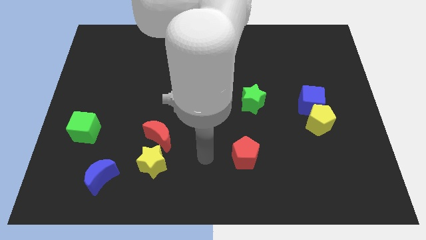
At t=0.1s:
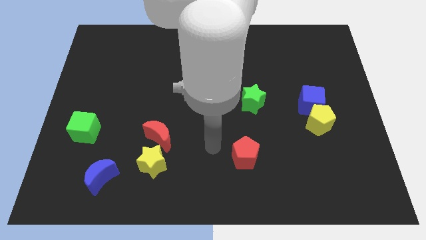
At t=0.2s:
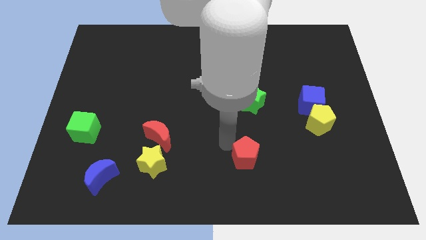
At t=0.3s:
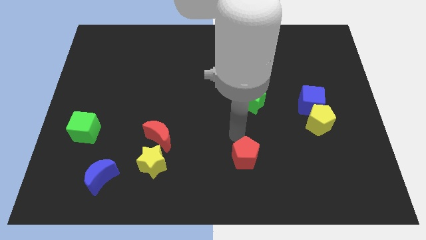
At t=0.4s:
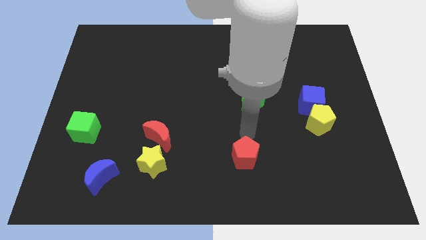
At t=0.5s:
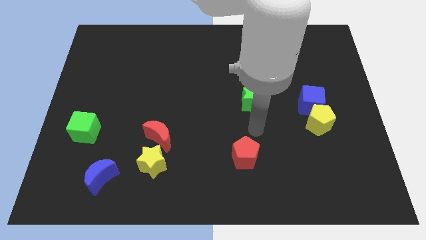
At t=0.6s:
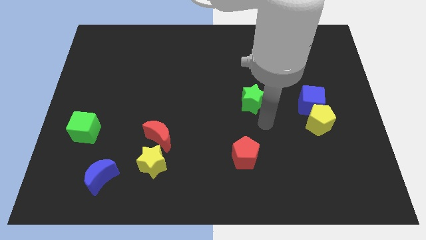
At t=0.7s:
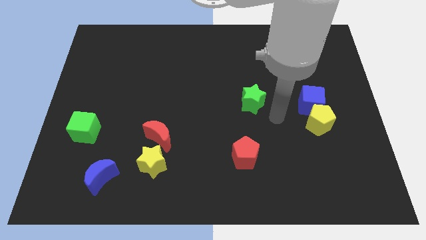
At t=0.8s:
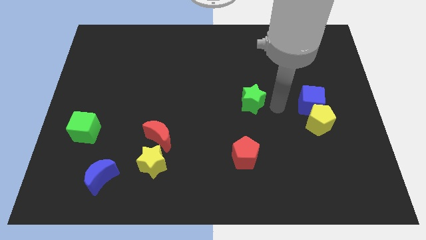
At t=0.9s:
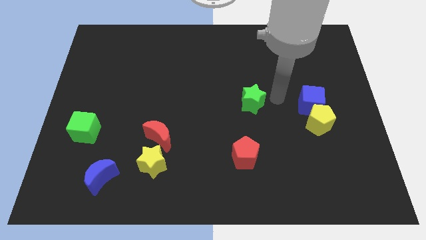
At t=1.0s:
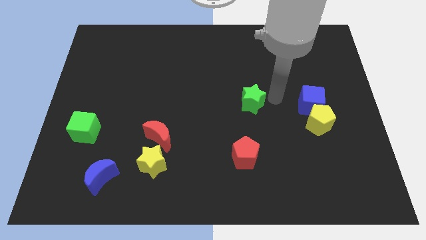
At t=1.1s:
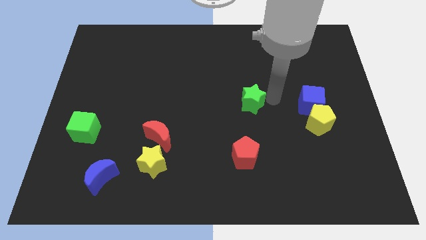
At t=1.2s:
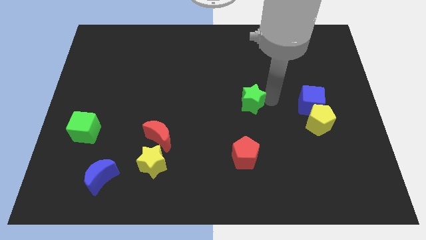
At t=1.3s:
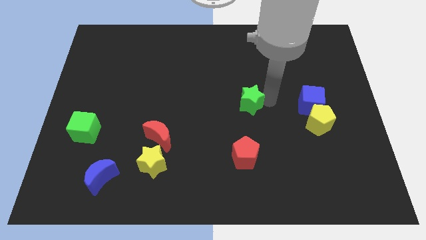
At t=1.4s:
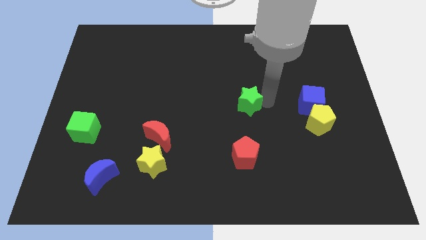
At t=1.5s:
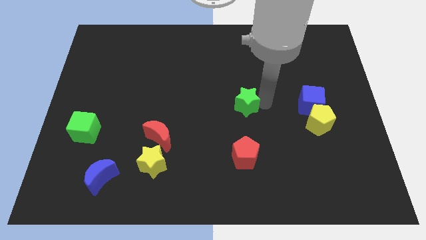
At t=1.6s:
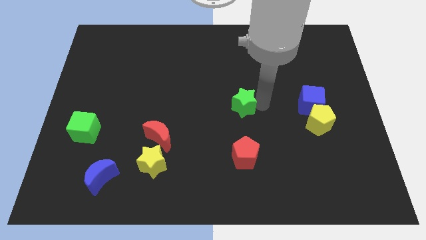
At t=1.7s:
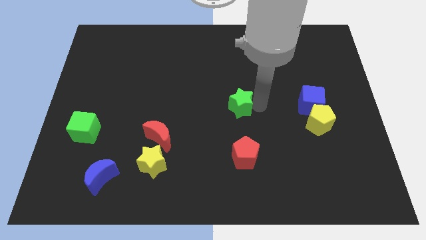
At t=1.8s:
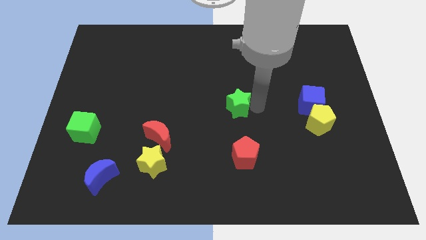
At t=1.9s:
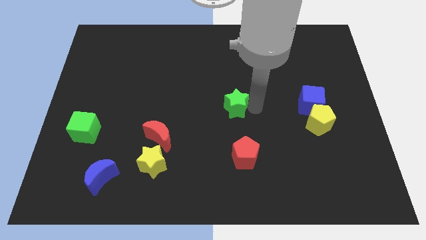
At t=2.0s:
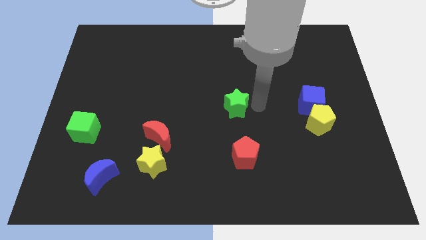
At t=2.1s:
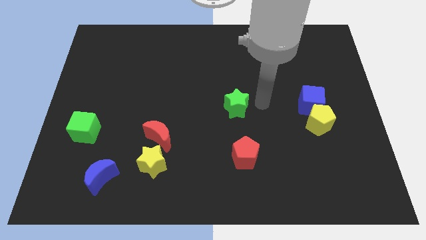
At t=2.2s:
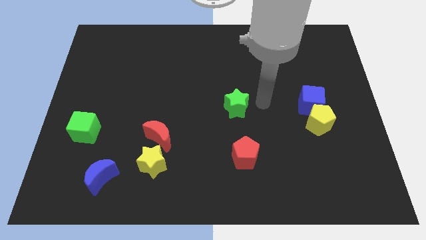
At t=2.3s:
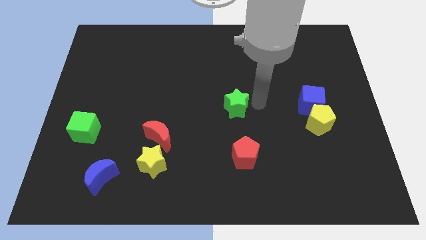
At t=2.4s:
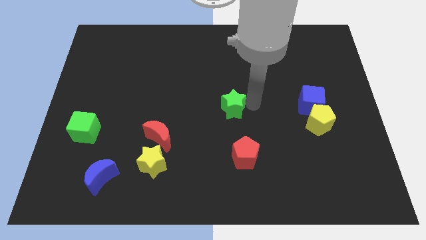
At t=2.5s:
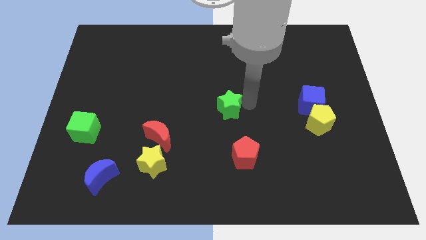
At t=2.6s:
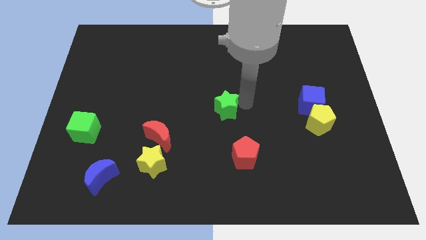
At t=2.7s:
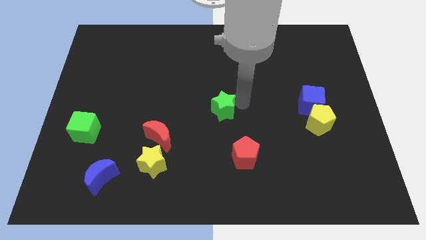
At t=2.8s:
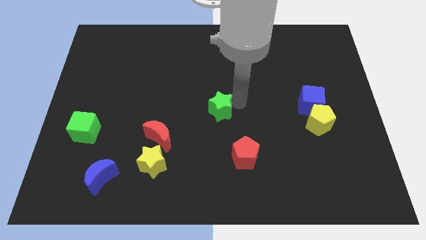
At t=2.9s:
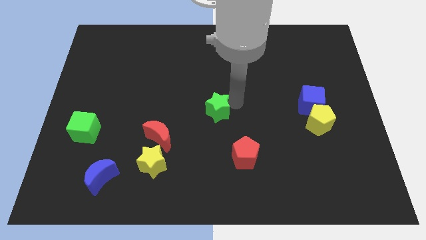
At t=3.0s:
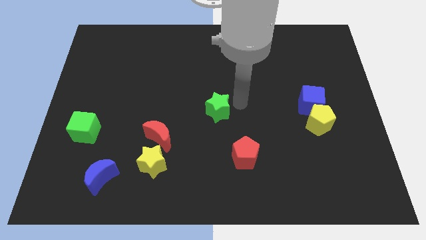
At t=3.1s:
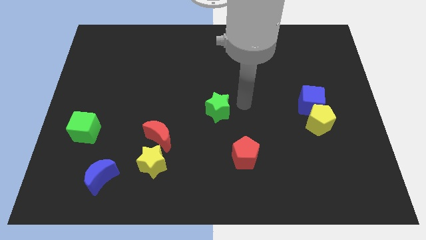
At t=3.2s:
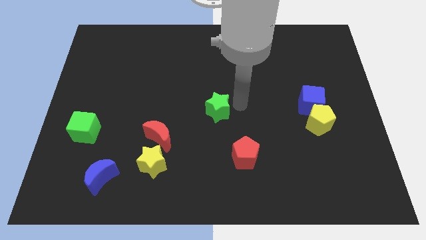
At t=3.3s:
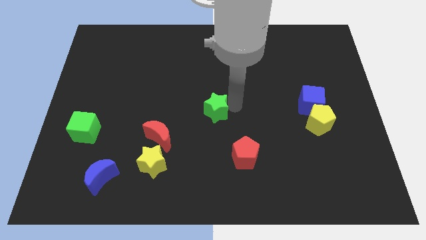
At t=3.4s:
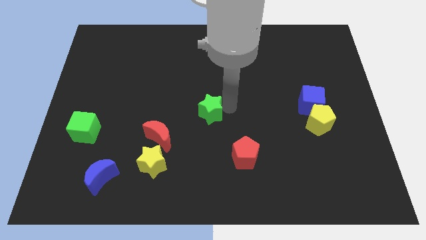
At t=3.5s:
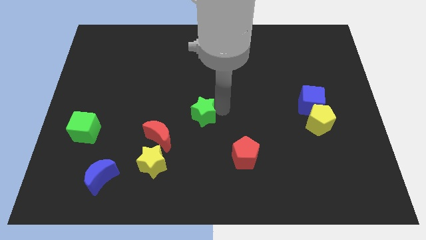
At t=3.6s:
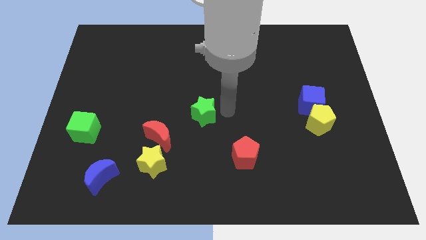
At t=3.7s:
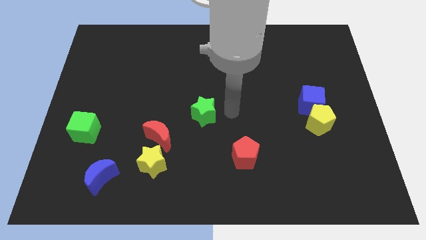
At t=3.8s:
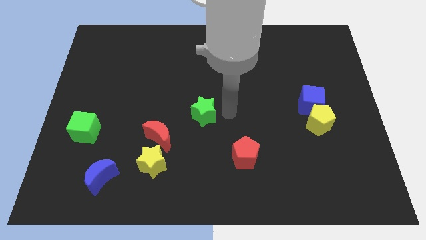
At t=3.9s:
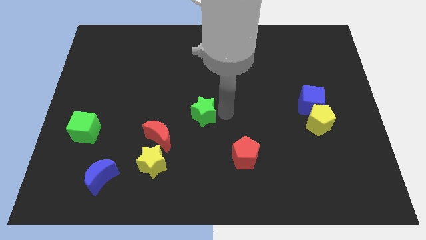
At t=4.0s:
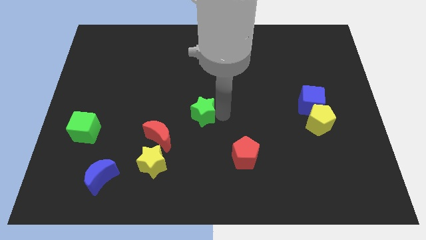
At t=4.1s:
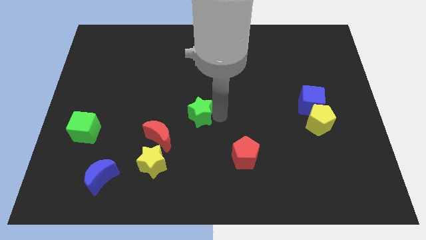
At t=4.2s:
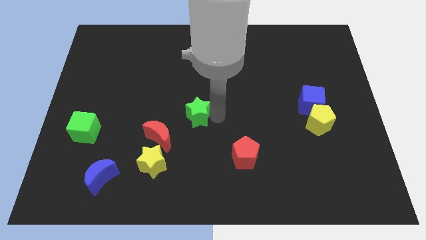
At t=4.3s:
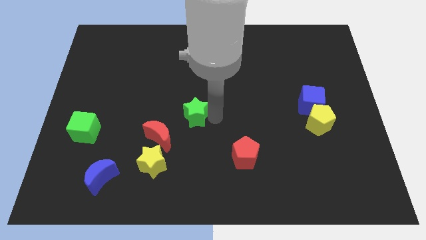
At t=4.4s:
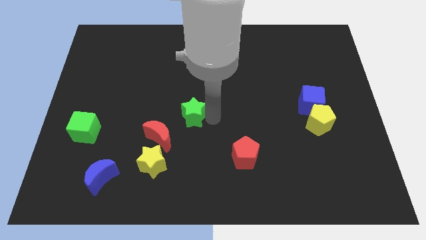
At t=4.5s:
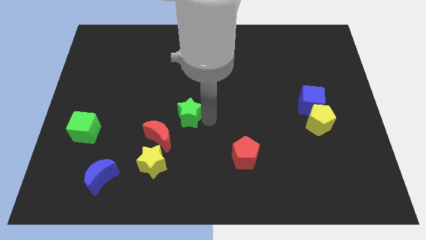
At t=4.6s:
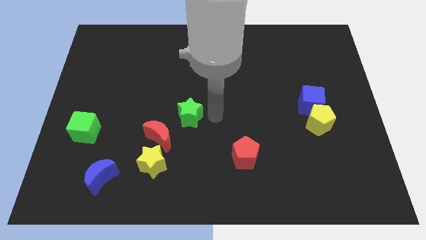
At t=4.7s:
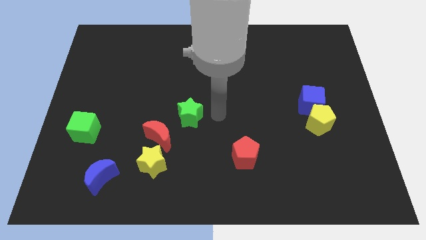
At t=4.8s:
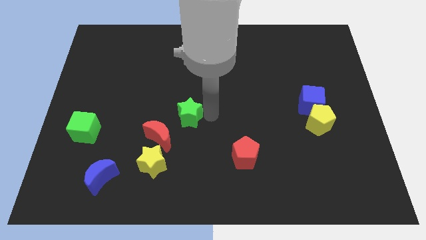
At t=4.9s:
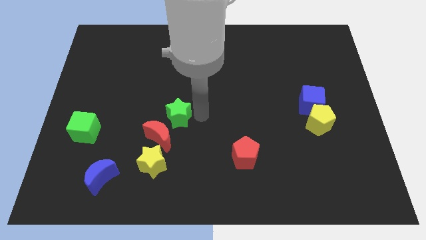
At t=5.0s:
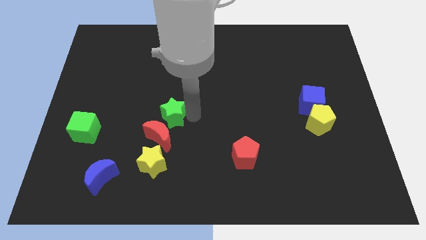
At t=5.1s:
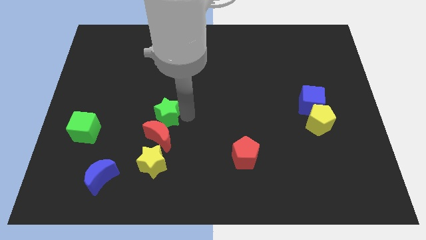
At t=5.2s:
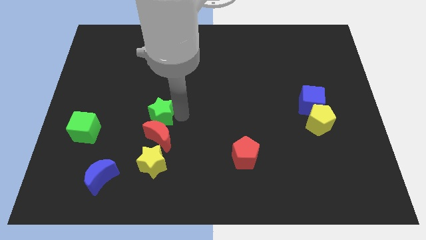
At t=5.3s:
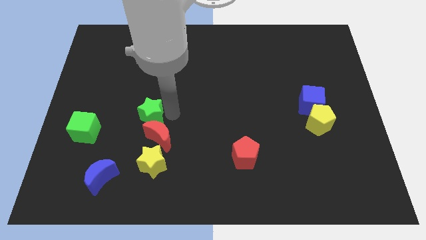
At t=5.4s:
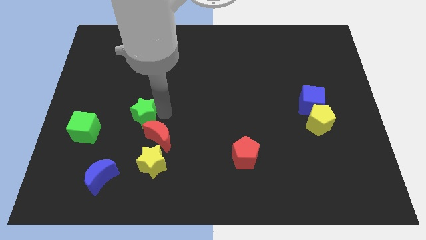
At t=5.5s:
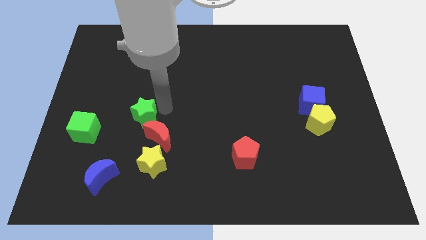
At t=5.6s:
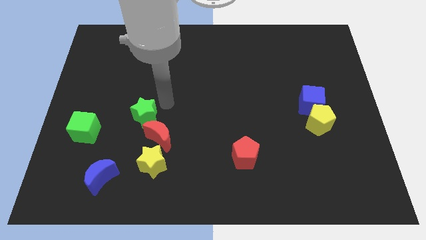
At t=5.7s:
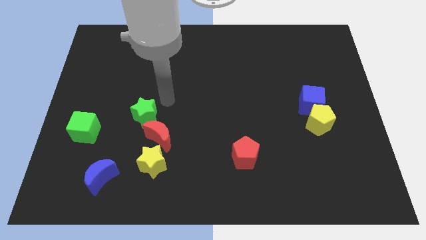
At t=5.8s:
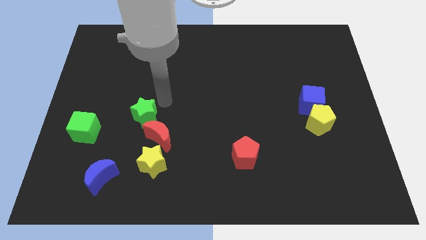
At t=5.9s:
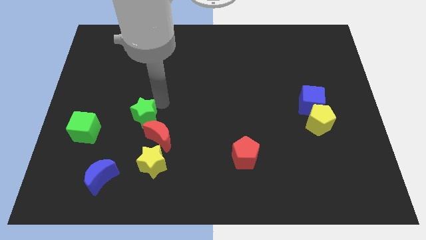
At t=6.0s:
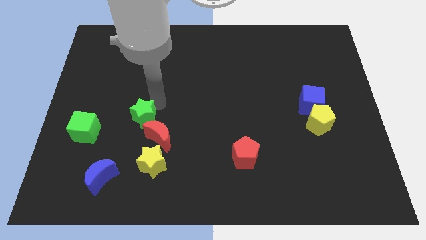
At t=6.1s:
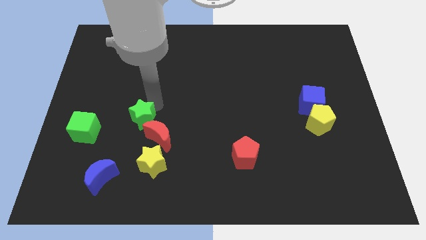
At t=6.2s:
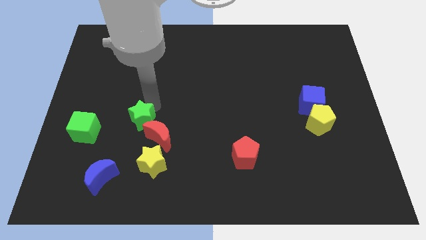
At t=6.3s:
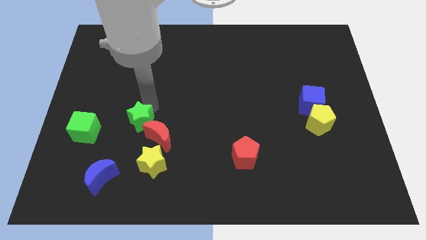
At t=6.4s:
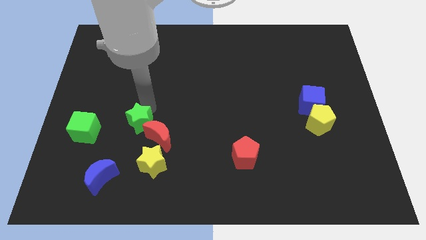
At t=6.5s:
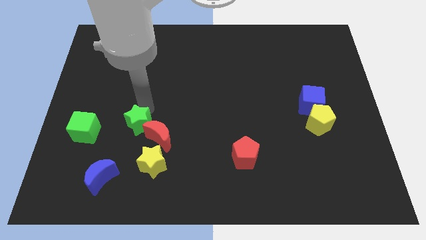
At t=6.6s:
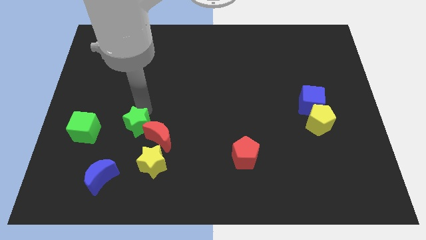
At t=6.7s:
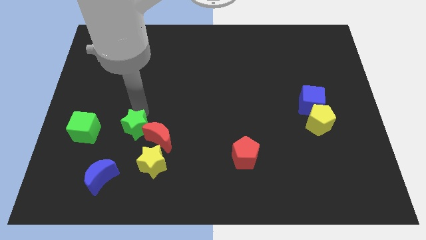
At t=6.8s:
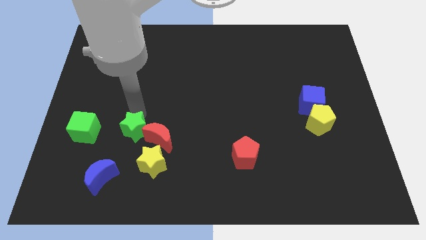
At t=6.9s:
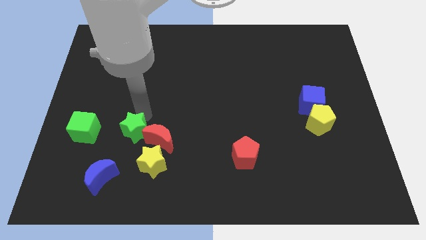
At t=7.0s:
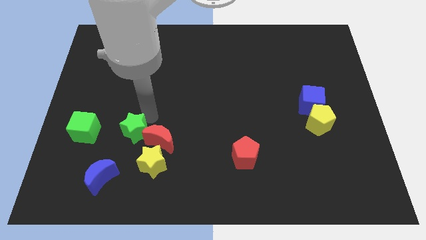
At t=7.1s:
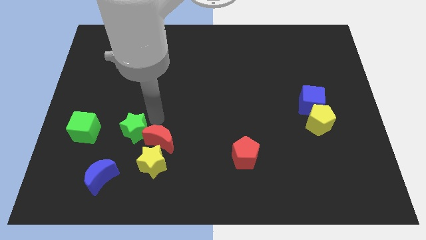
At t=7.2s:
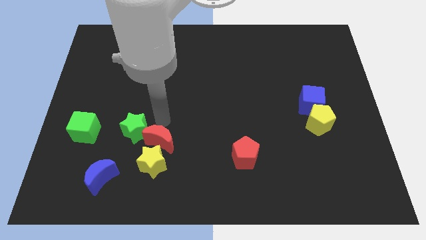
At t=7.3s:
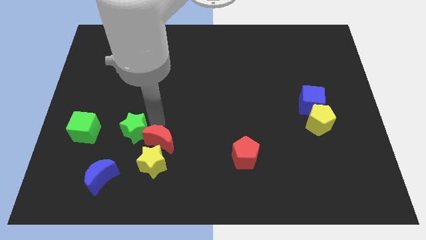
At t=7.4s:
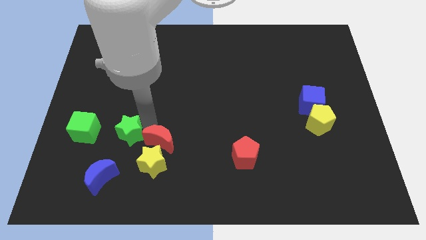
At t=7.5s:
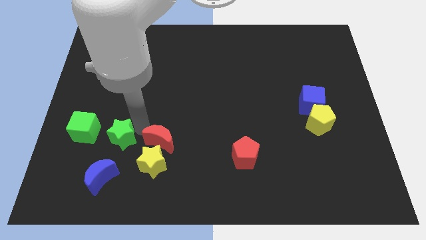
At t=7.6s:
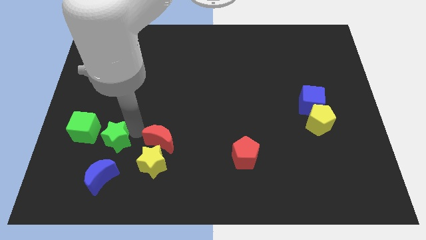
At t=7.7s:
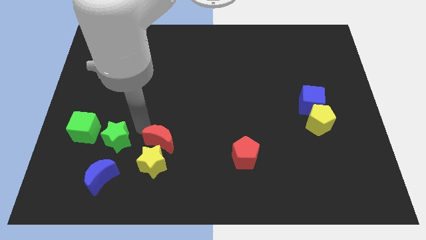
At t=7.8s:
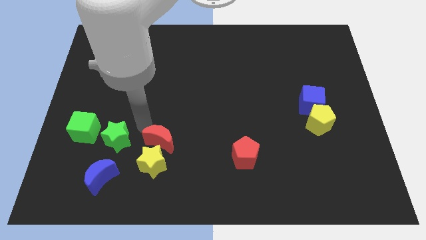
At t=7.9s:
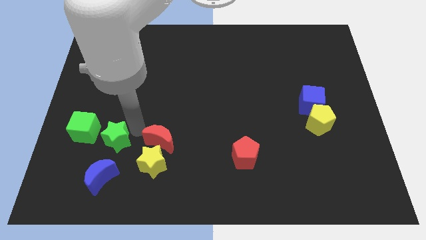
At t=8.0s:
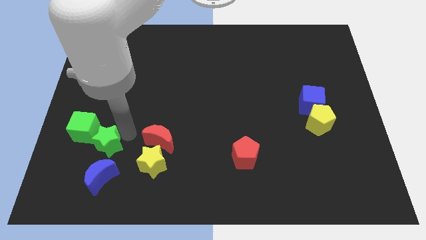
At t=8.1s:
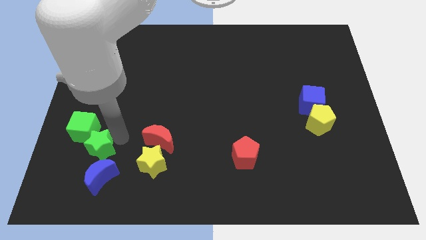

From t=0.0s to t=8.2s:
slide the green star to the top left side of the blue moon
